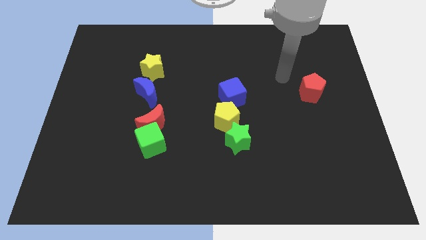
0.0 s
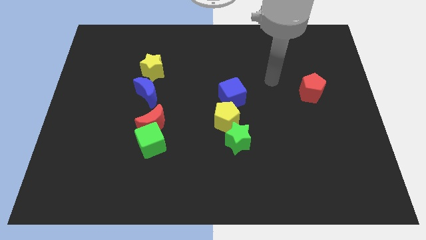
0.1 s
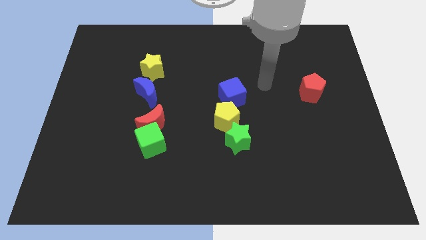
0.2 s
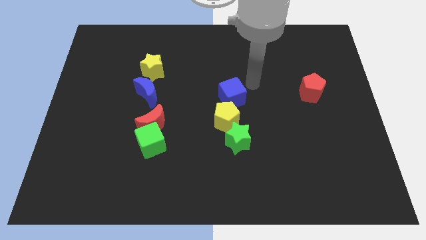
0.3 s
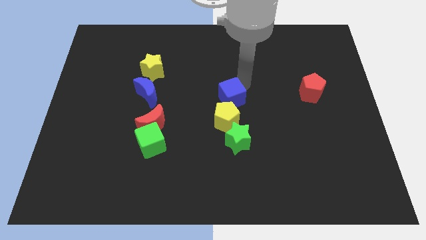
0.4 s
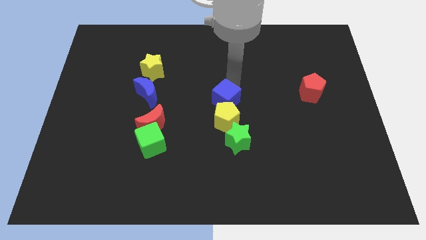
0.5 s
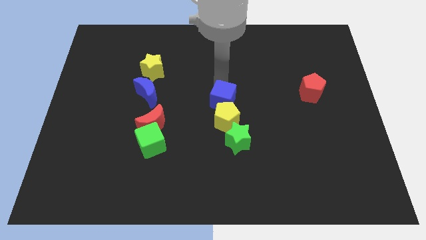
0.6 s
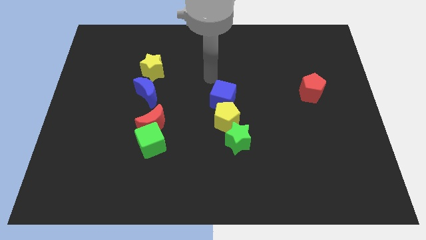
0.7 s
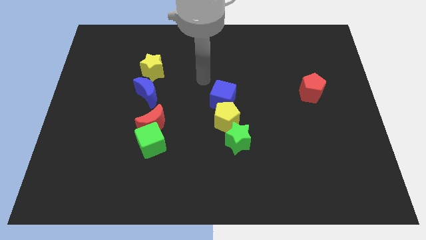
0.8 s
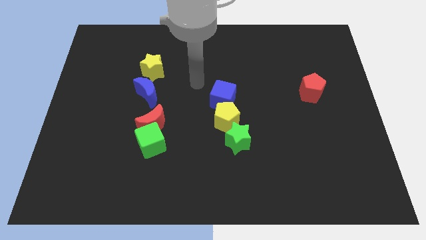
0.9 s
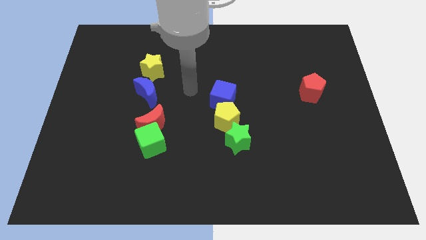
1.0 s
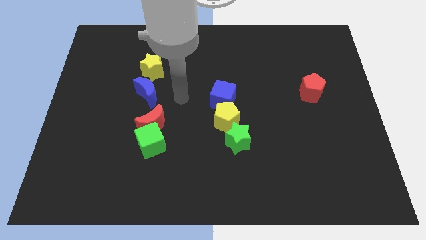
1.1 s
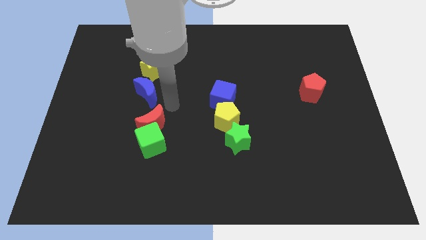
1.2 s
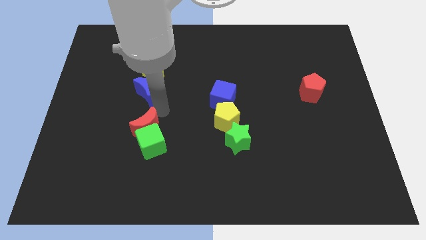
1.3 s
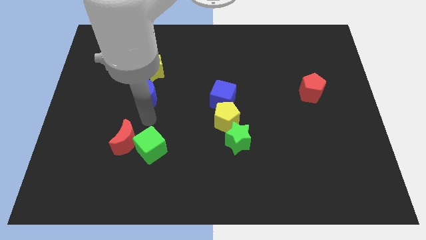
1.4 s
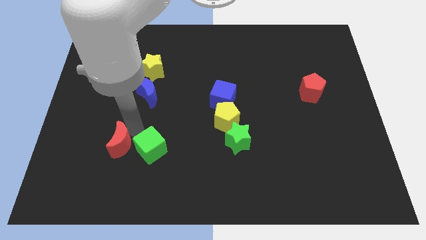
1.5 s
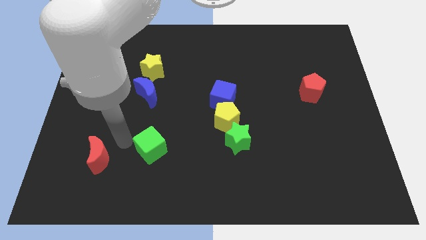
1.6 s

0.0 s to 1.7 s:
separate the green cube from the red moon

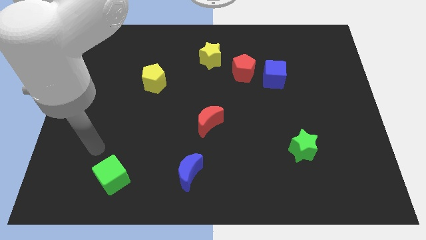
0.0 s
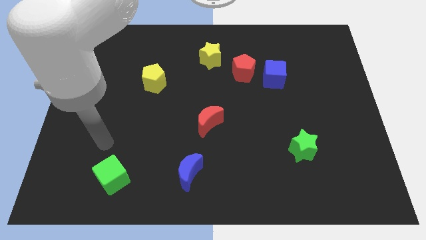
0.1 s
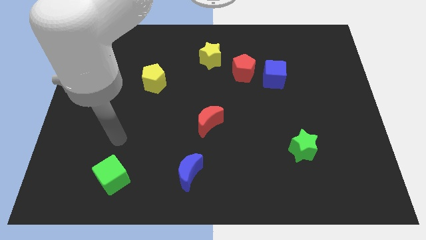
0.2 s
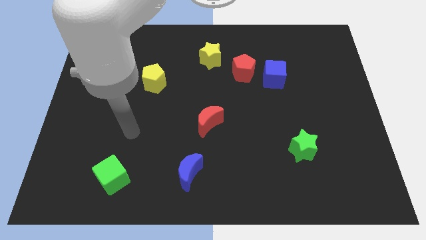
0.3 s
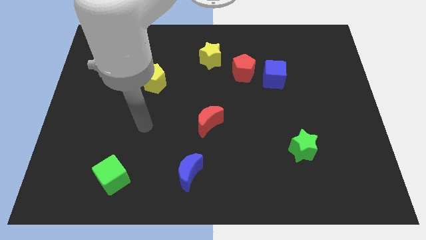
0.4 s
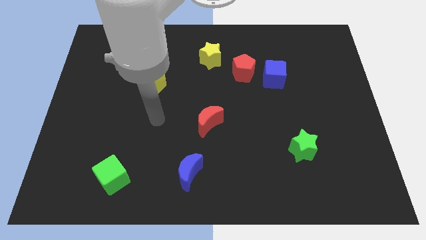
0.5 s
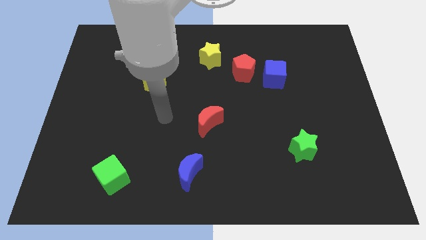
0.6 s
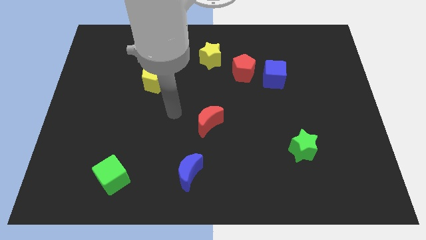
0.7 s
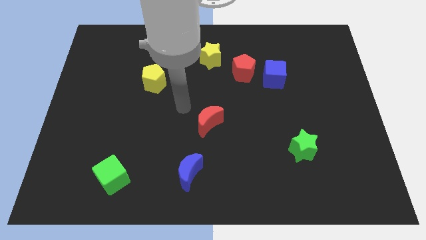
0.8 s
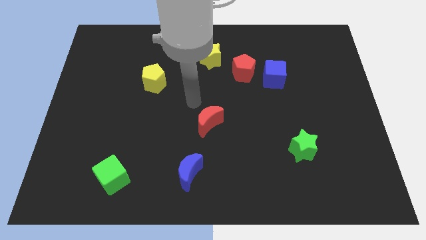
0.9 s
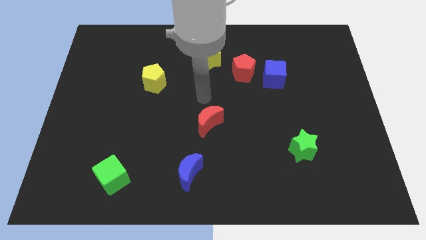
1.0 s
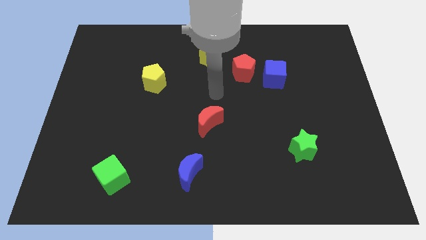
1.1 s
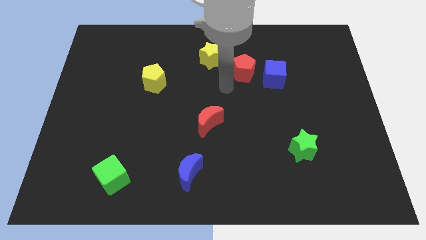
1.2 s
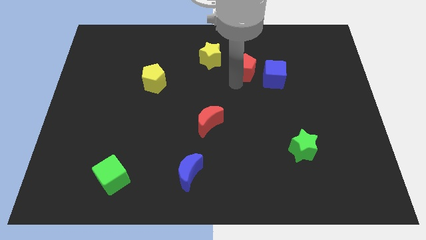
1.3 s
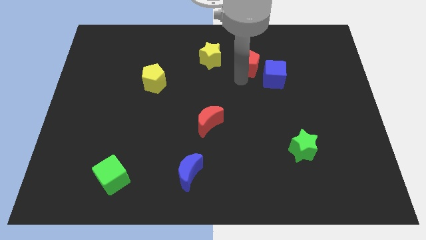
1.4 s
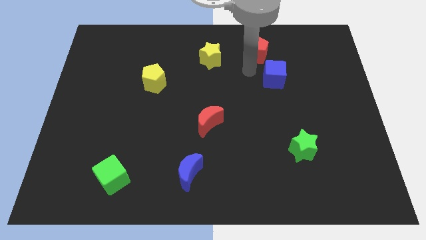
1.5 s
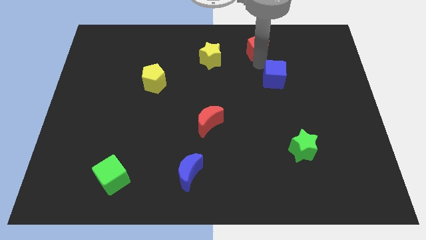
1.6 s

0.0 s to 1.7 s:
separate the blue cube from the red pentagon

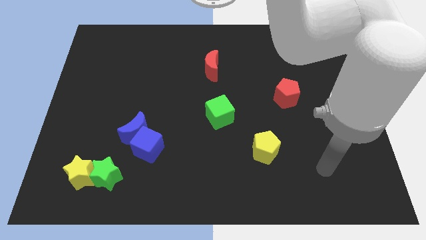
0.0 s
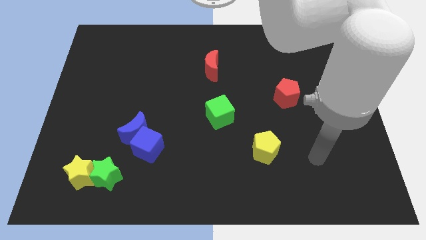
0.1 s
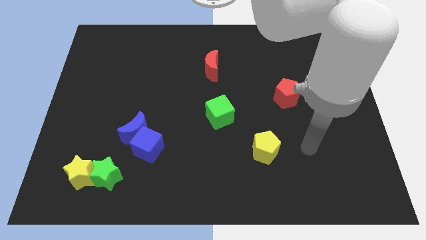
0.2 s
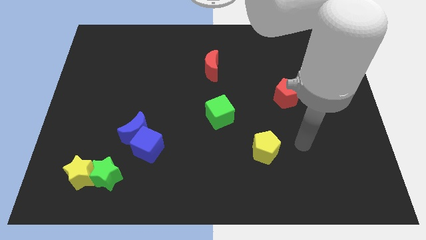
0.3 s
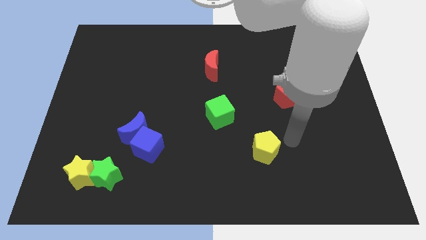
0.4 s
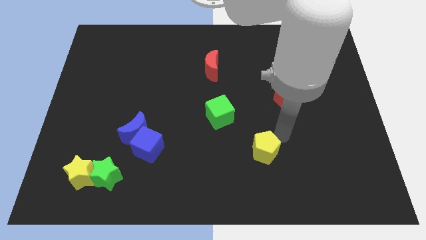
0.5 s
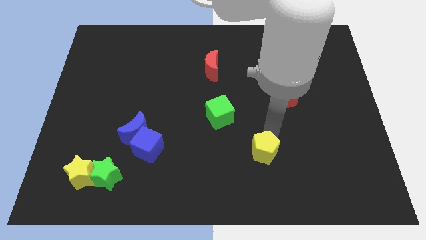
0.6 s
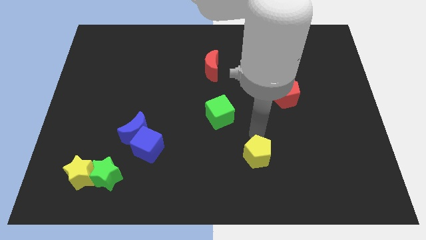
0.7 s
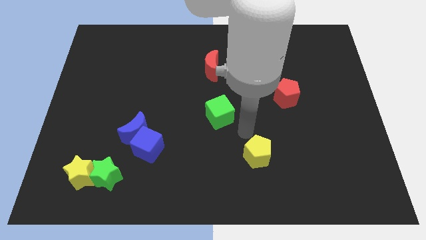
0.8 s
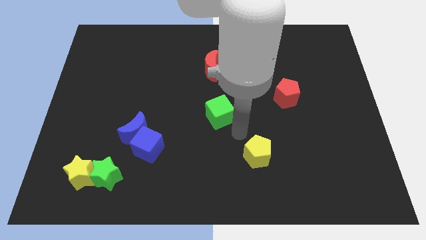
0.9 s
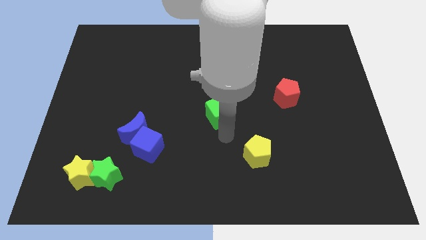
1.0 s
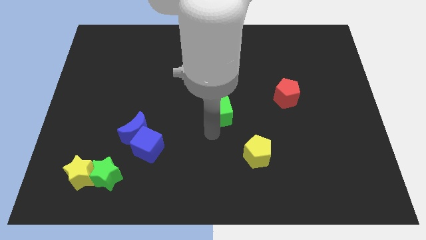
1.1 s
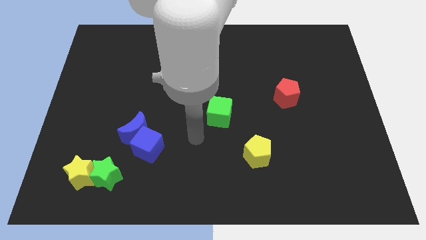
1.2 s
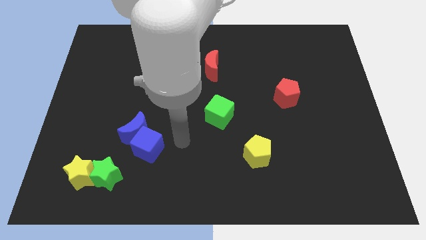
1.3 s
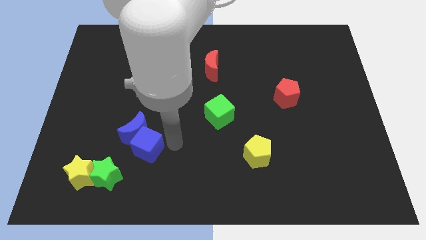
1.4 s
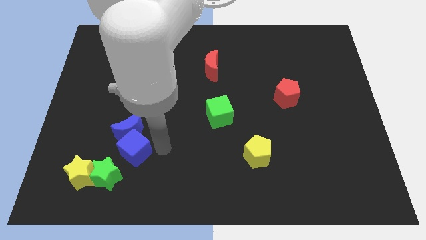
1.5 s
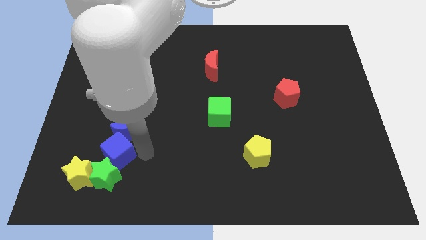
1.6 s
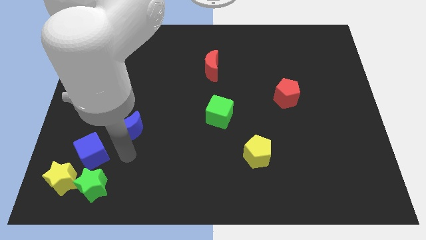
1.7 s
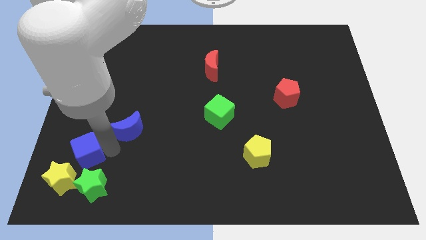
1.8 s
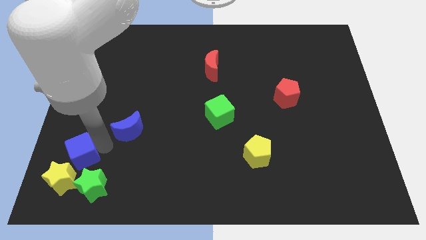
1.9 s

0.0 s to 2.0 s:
move the blue moon away from the blue cube

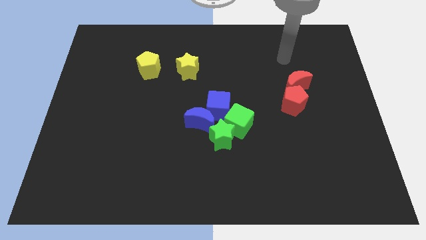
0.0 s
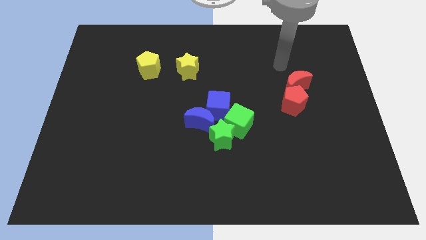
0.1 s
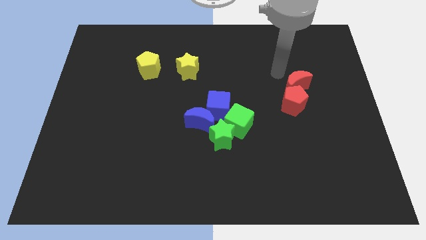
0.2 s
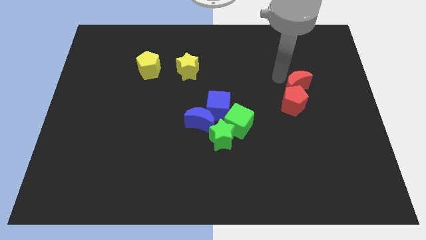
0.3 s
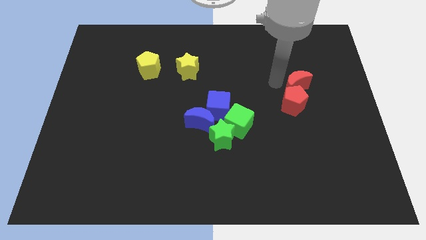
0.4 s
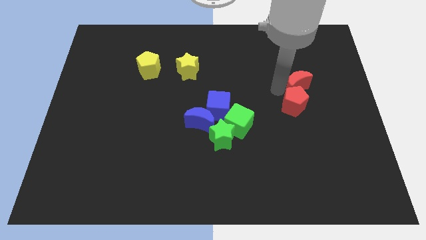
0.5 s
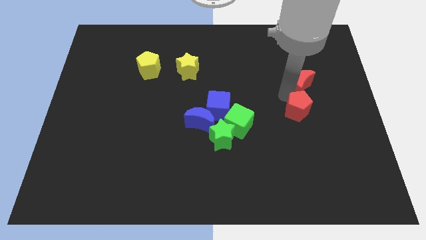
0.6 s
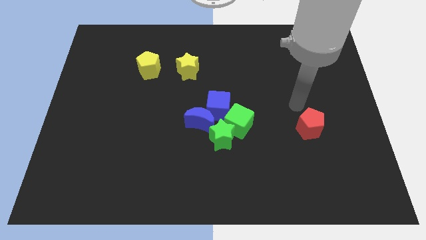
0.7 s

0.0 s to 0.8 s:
separate the red moon from the red pentagon

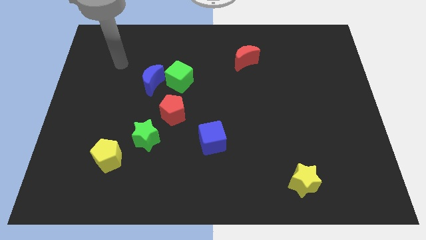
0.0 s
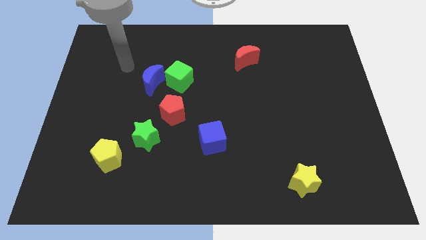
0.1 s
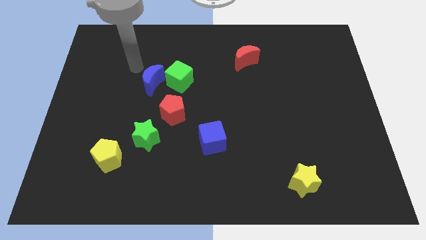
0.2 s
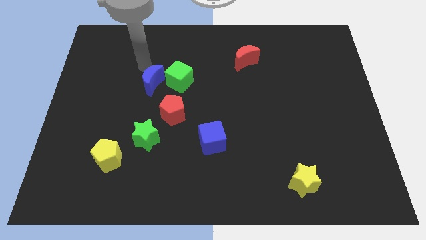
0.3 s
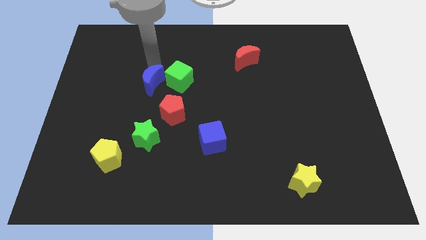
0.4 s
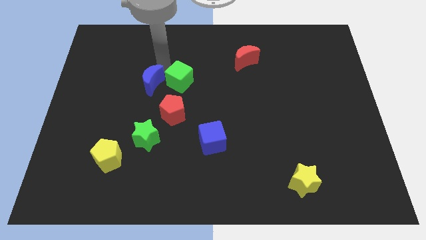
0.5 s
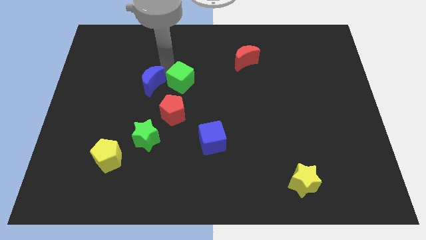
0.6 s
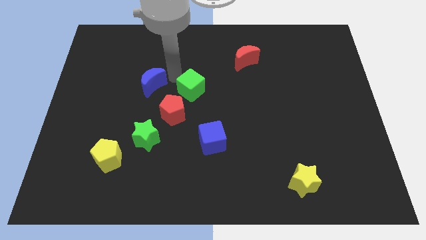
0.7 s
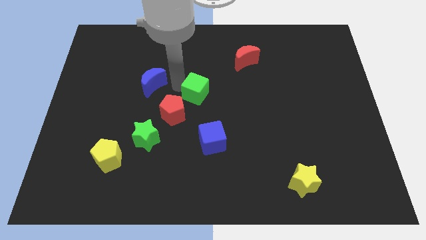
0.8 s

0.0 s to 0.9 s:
separate the blue moon from the green cube

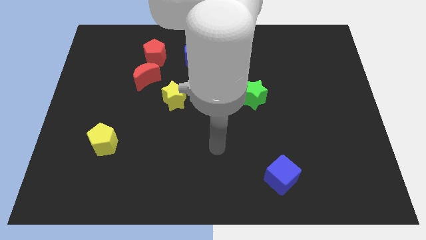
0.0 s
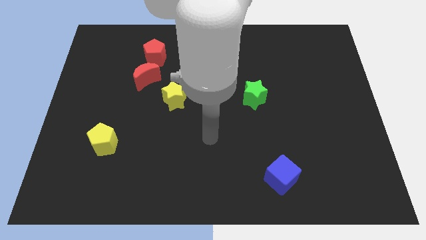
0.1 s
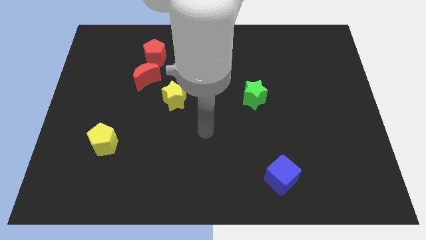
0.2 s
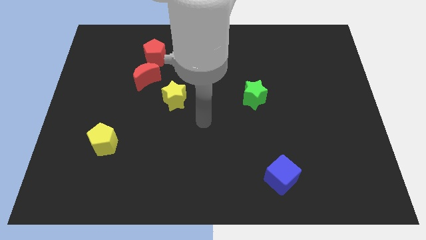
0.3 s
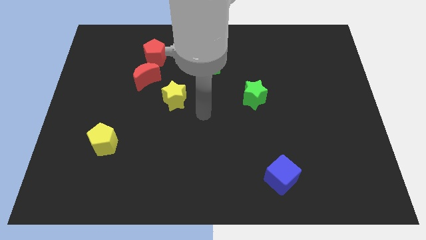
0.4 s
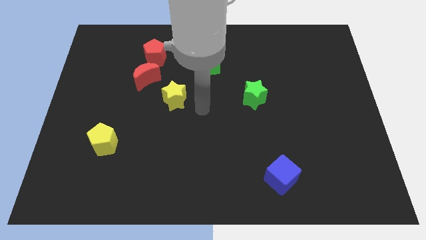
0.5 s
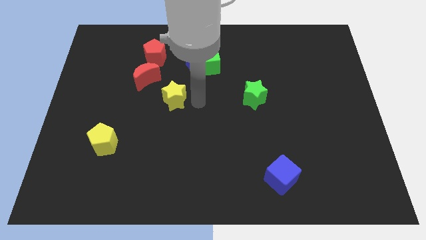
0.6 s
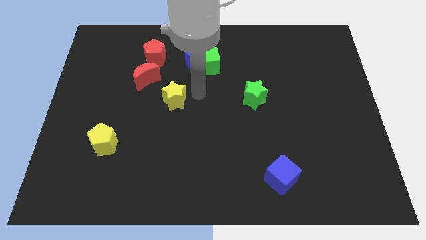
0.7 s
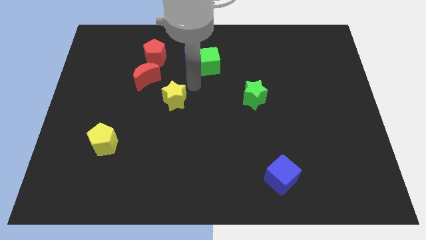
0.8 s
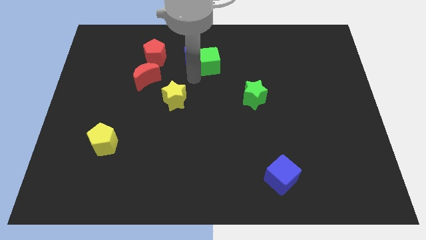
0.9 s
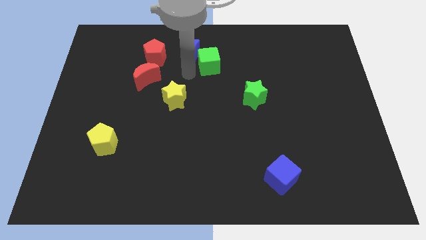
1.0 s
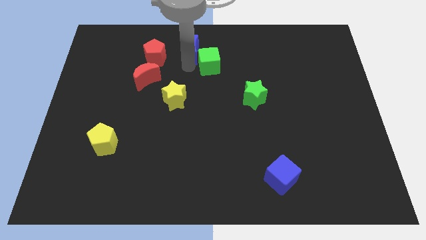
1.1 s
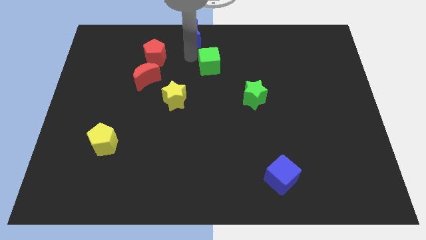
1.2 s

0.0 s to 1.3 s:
pull the green cube apart from the blue moon

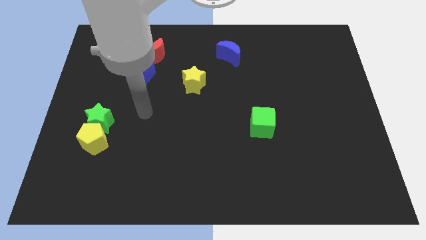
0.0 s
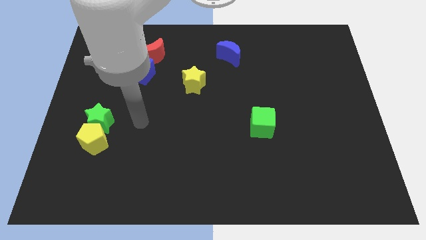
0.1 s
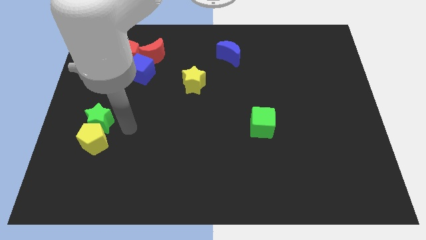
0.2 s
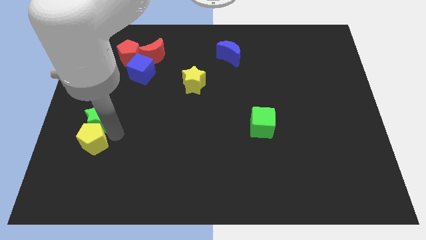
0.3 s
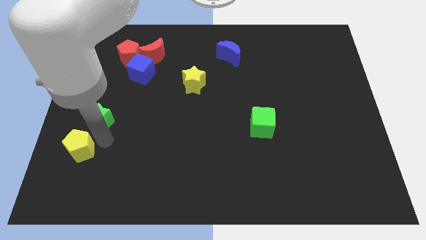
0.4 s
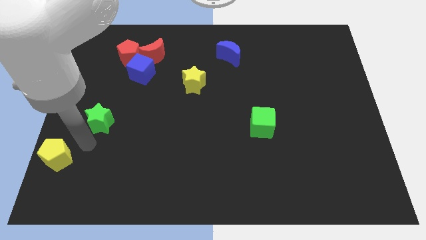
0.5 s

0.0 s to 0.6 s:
pull the green star apart from the yellow pentagon

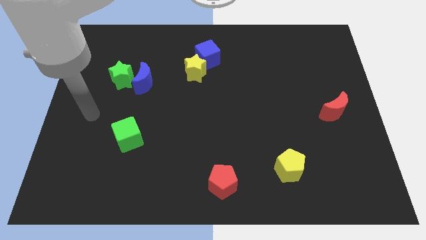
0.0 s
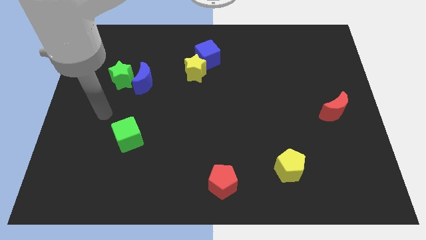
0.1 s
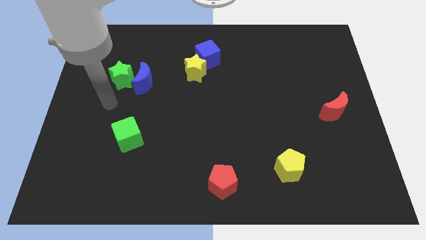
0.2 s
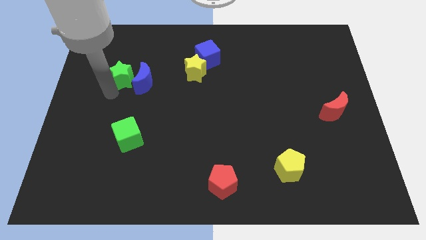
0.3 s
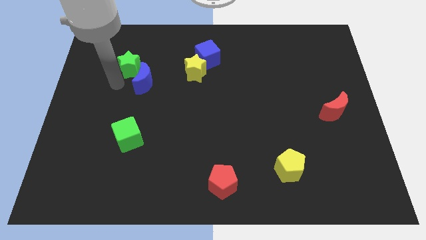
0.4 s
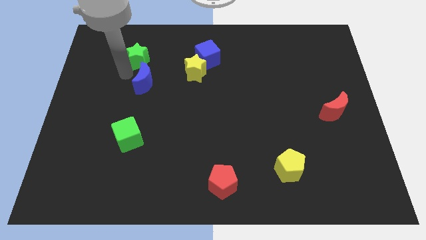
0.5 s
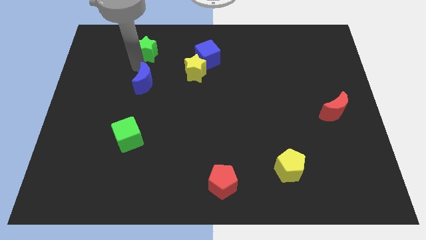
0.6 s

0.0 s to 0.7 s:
move the blue moon away from the green star
